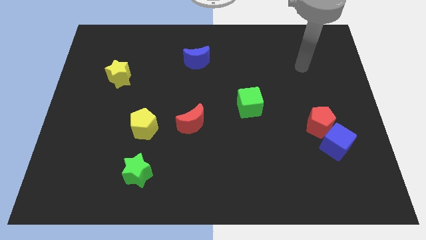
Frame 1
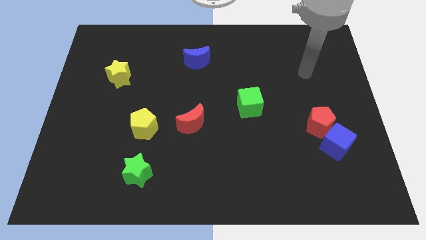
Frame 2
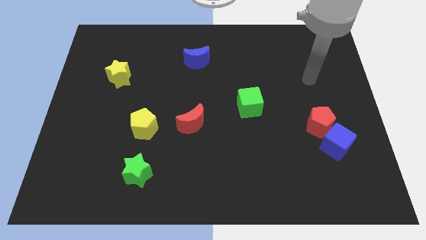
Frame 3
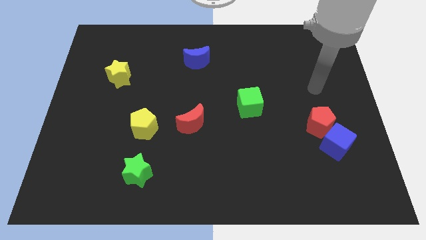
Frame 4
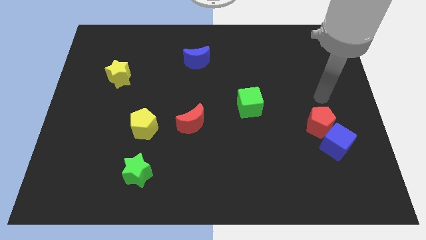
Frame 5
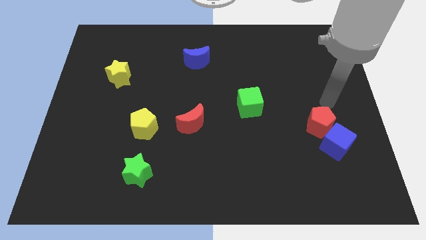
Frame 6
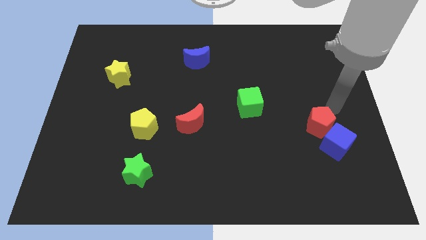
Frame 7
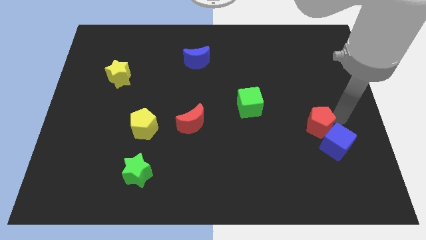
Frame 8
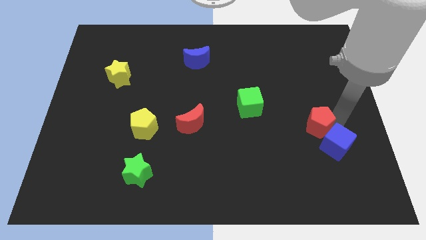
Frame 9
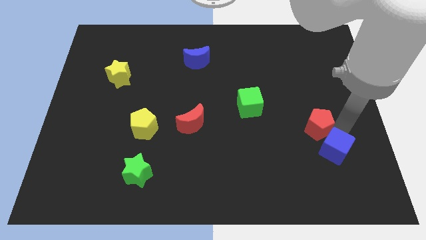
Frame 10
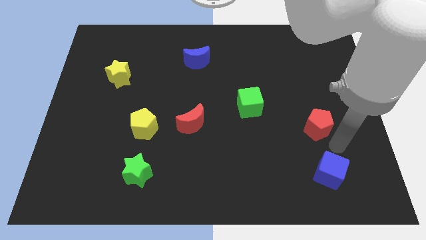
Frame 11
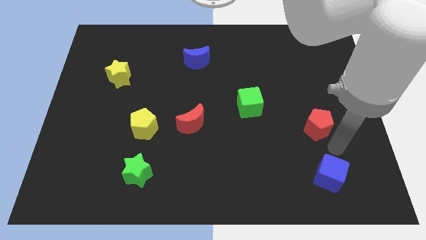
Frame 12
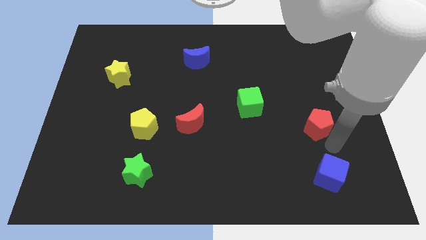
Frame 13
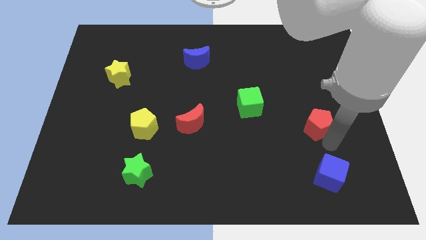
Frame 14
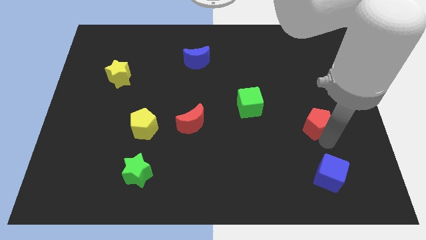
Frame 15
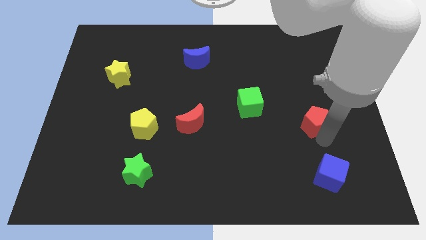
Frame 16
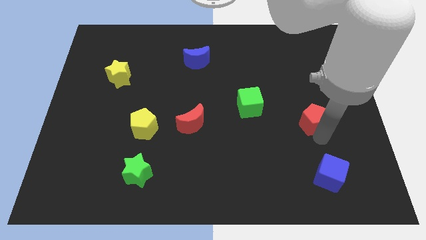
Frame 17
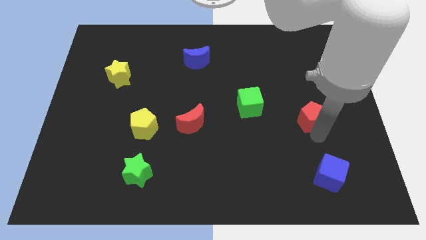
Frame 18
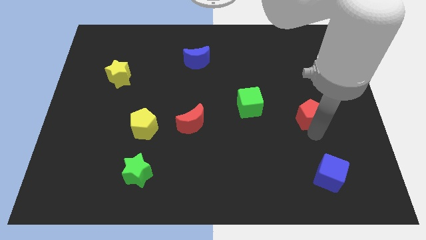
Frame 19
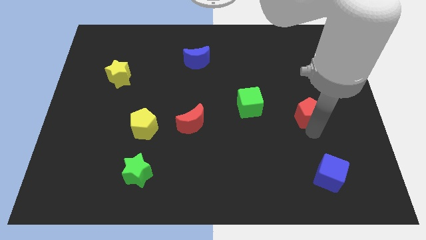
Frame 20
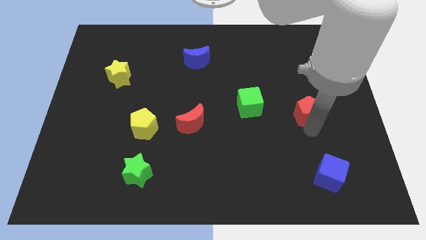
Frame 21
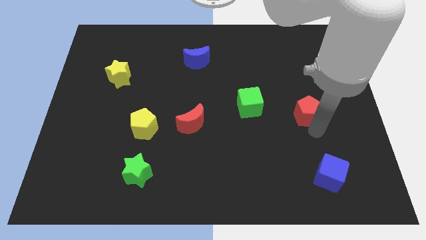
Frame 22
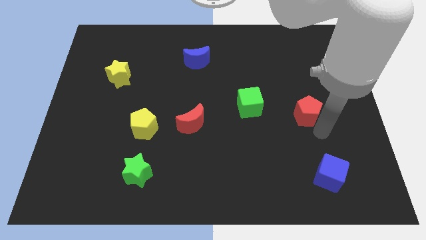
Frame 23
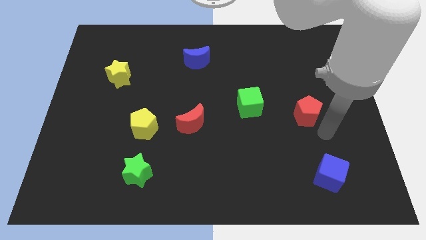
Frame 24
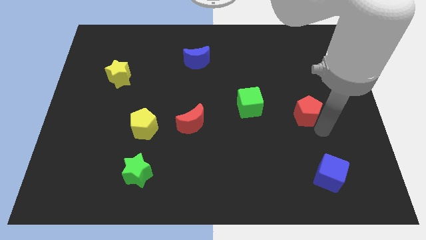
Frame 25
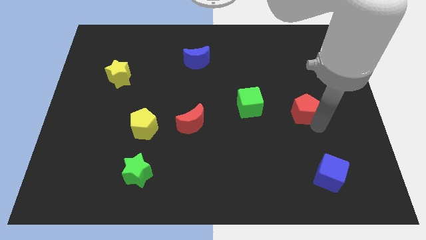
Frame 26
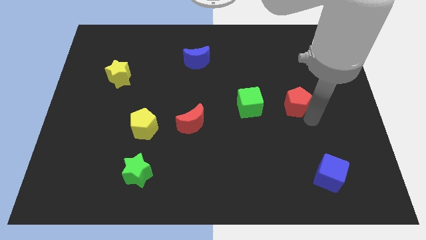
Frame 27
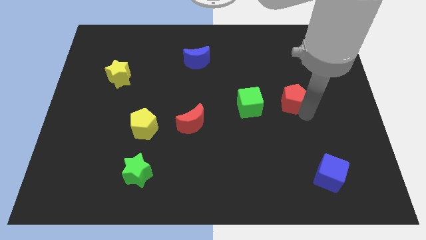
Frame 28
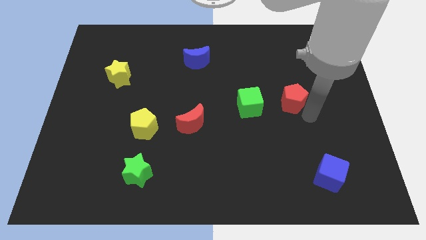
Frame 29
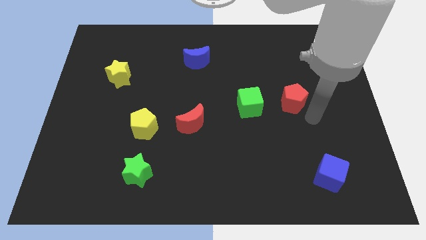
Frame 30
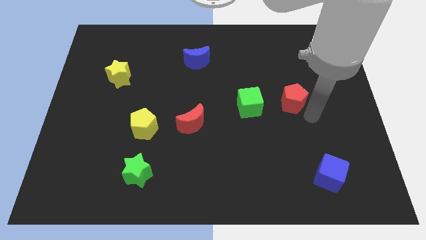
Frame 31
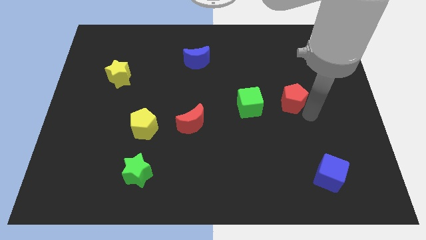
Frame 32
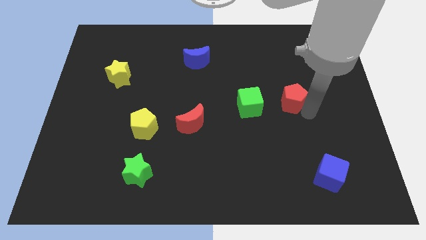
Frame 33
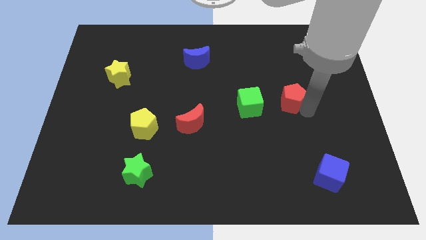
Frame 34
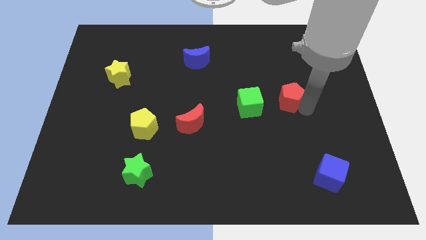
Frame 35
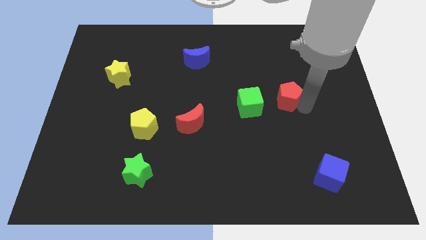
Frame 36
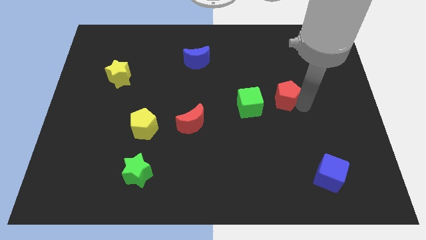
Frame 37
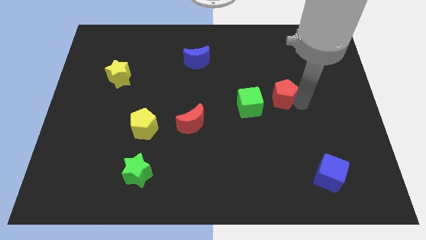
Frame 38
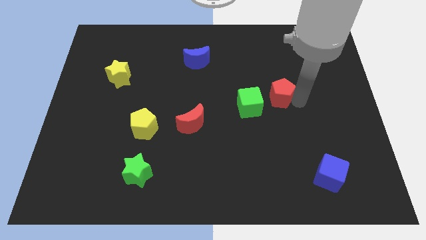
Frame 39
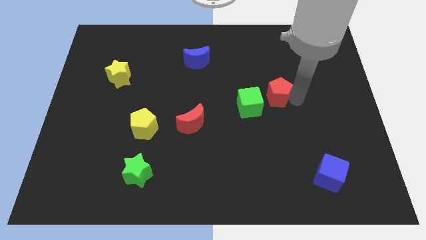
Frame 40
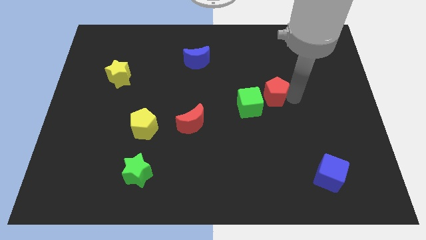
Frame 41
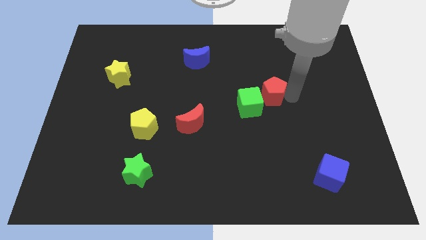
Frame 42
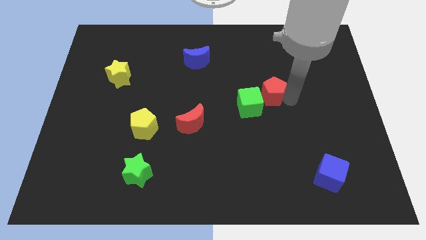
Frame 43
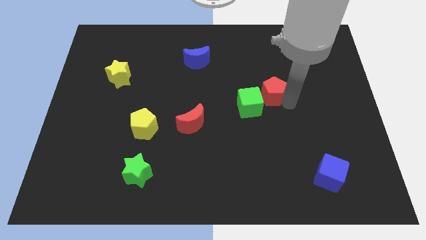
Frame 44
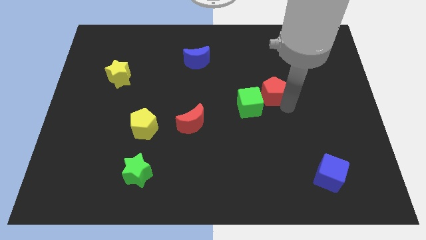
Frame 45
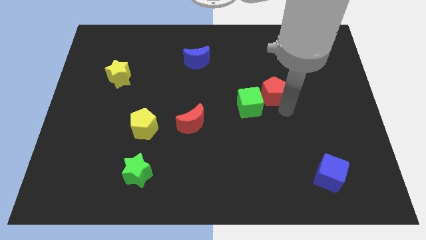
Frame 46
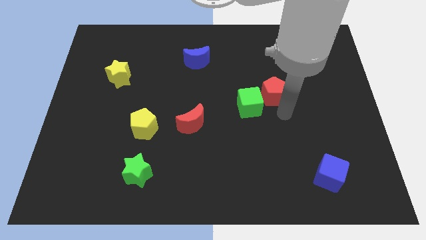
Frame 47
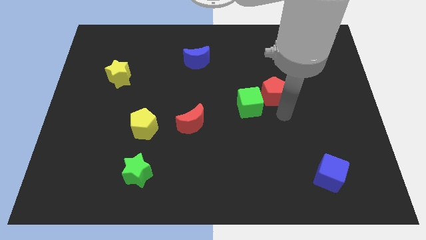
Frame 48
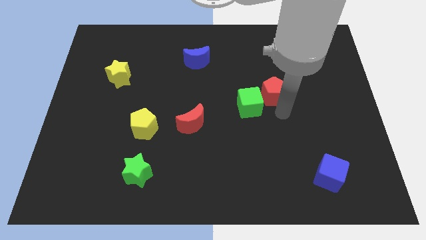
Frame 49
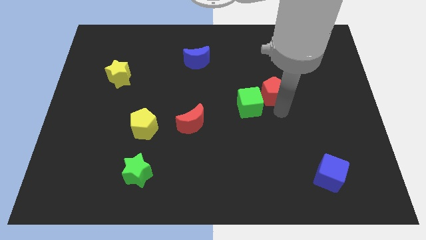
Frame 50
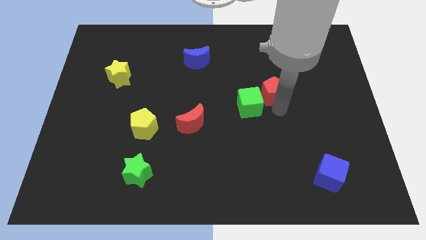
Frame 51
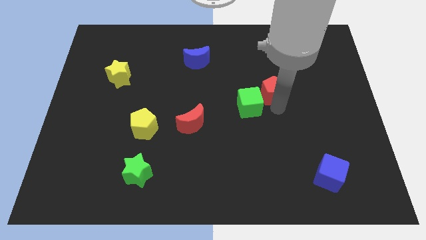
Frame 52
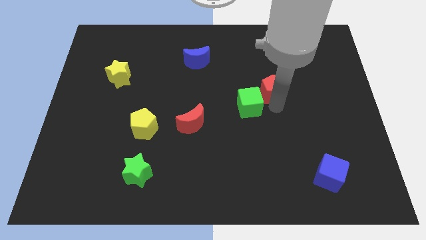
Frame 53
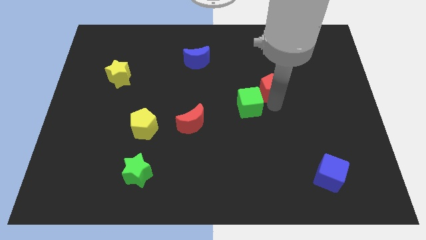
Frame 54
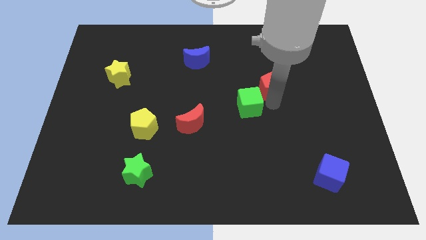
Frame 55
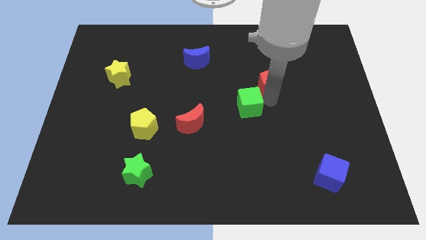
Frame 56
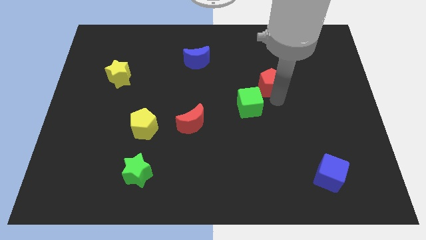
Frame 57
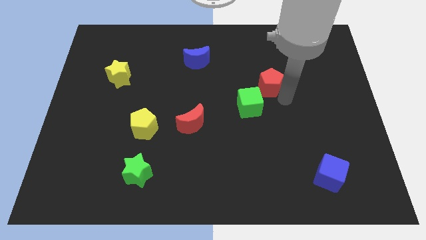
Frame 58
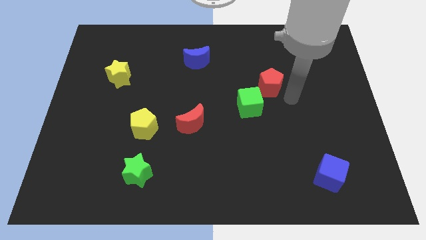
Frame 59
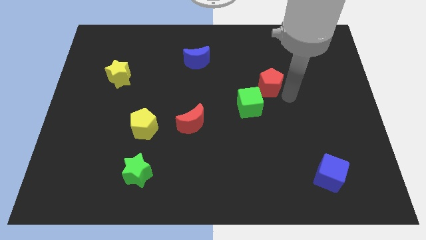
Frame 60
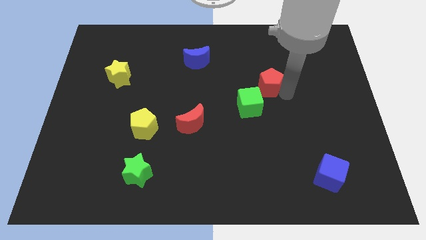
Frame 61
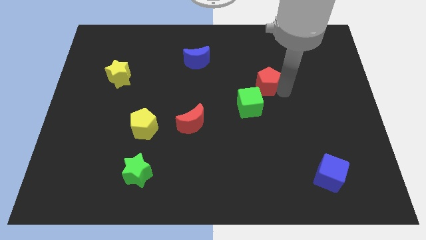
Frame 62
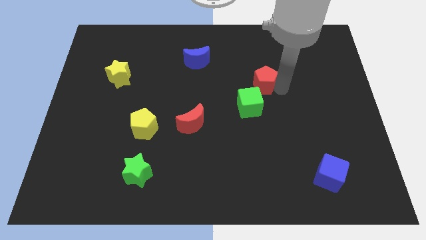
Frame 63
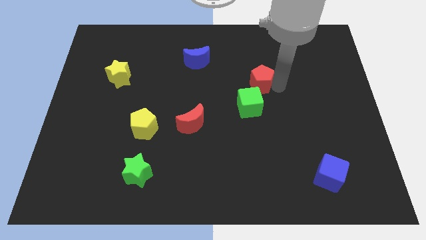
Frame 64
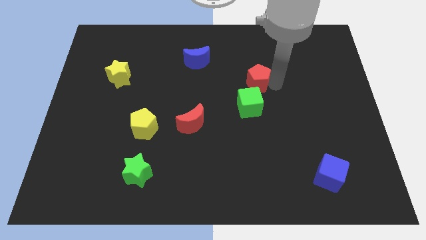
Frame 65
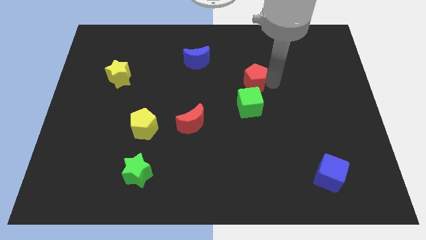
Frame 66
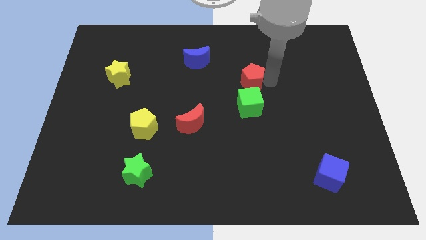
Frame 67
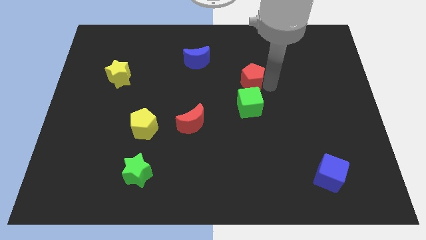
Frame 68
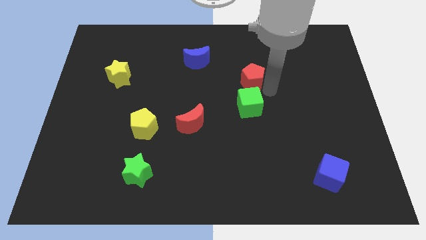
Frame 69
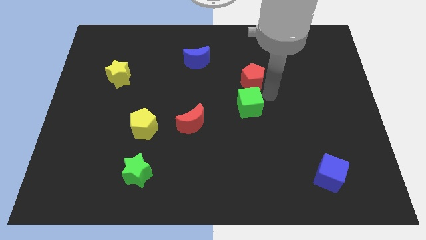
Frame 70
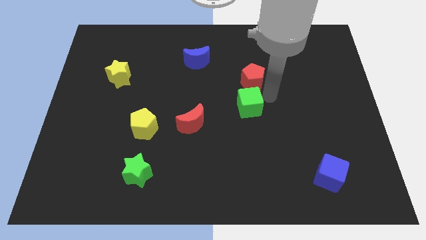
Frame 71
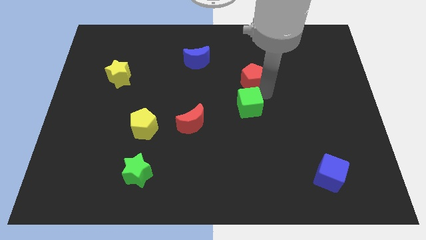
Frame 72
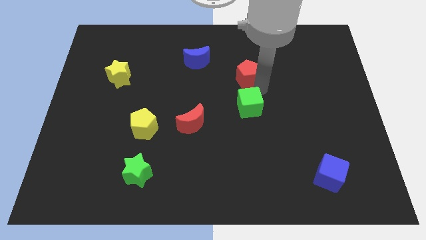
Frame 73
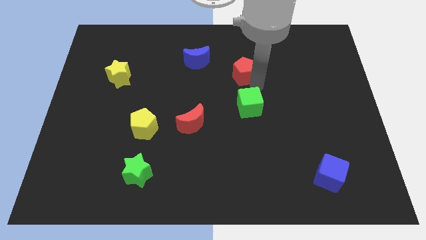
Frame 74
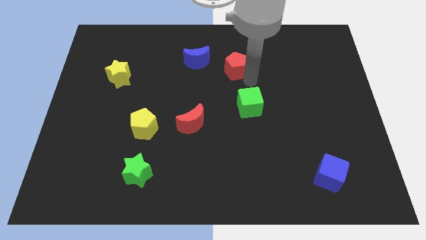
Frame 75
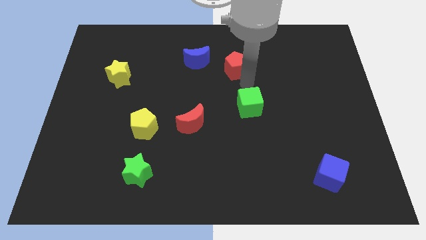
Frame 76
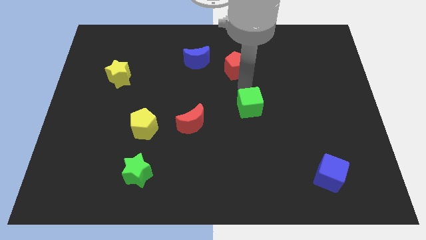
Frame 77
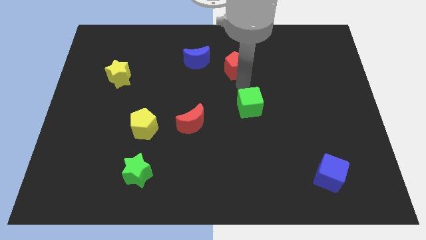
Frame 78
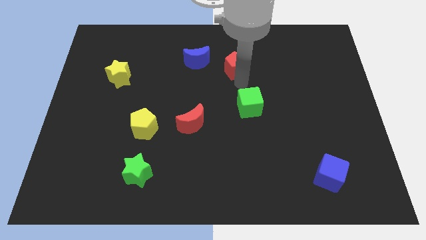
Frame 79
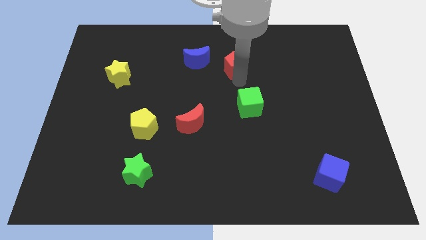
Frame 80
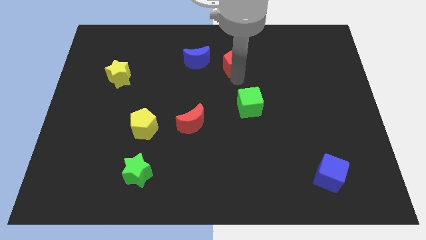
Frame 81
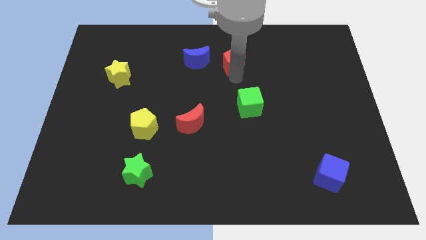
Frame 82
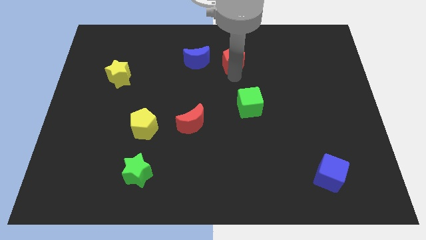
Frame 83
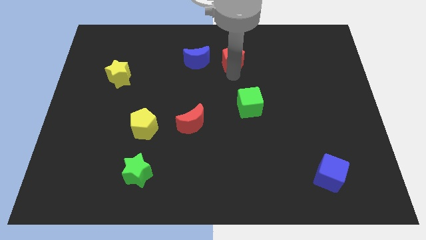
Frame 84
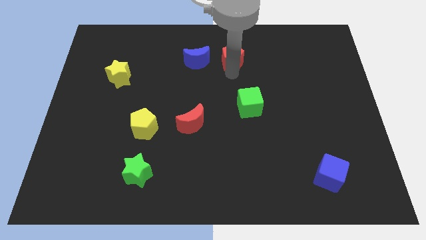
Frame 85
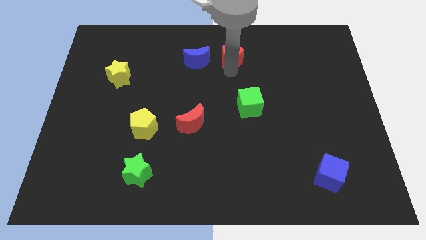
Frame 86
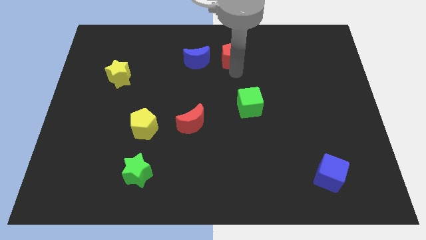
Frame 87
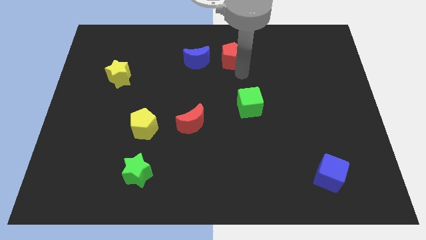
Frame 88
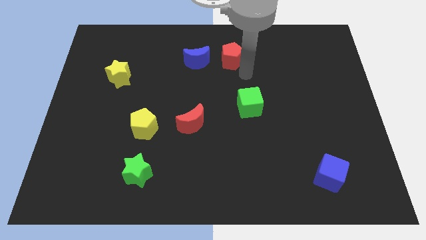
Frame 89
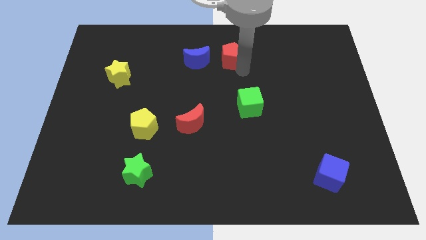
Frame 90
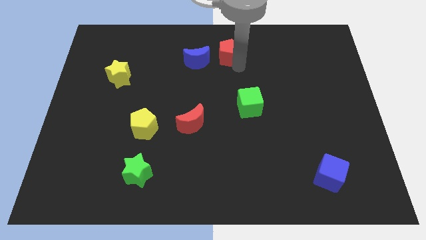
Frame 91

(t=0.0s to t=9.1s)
slide the red pentagon to the towards your base
